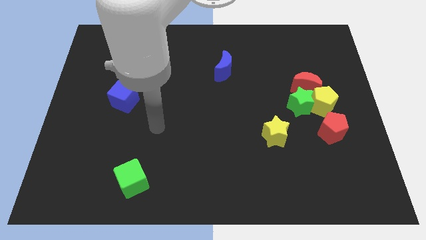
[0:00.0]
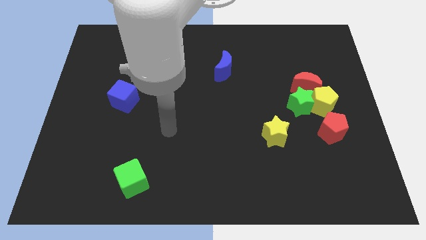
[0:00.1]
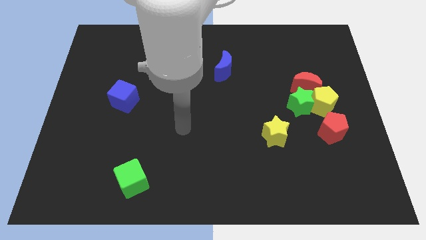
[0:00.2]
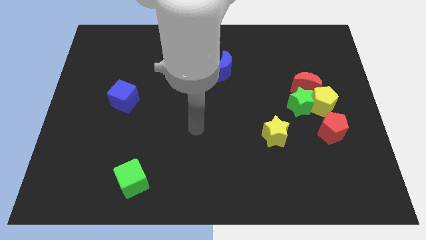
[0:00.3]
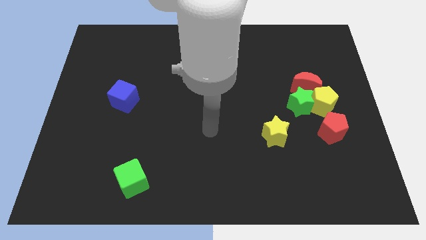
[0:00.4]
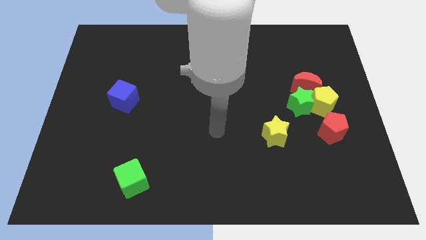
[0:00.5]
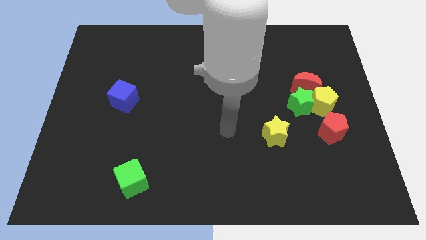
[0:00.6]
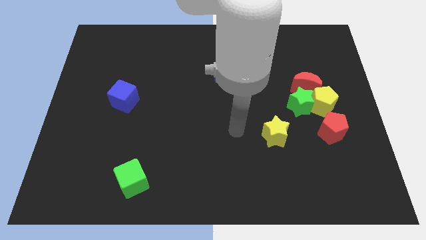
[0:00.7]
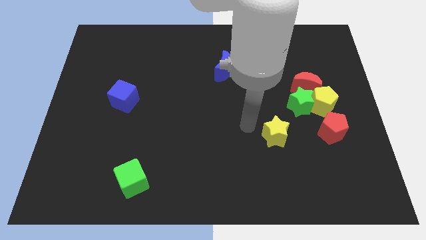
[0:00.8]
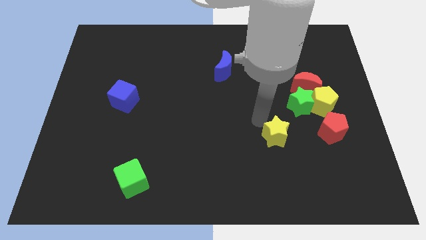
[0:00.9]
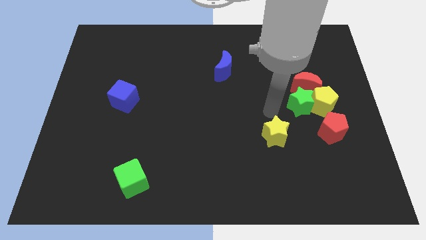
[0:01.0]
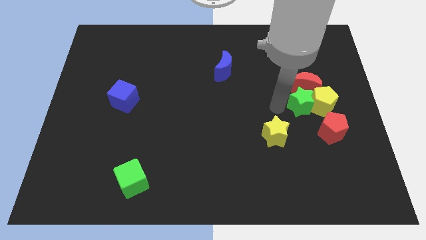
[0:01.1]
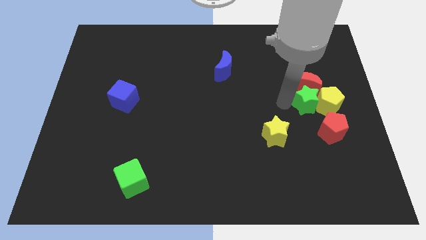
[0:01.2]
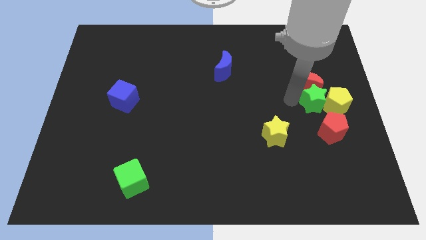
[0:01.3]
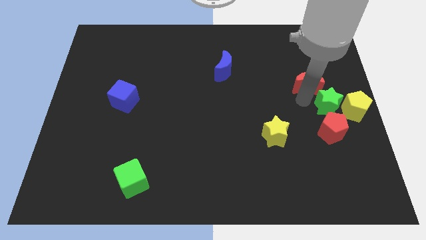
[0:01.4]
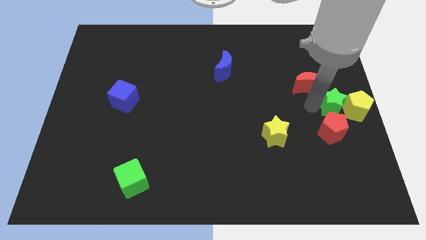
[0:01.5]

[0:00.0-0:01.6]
move the red moon away from the green star and yellow pentagon

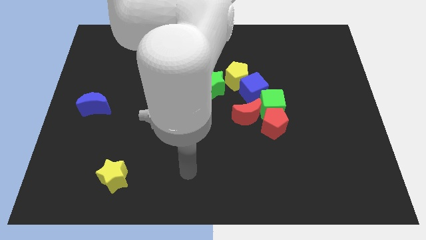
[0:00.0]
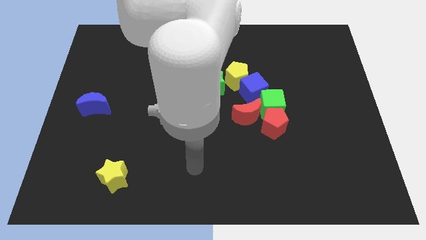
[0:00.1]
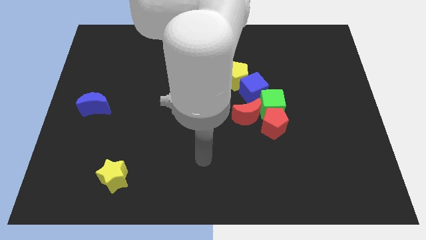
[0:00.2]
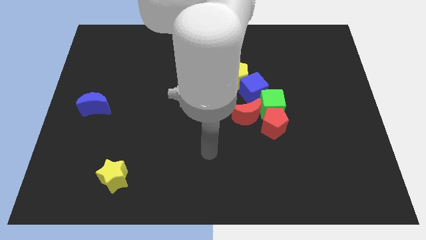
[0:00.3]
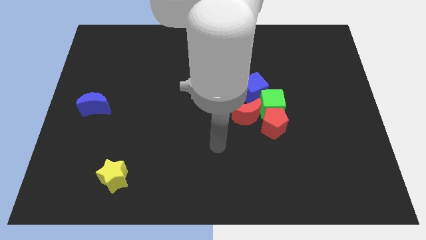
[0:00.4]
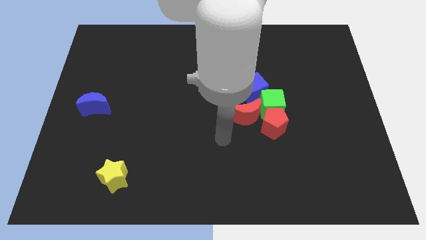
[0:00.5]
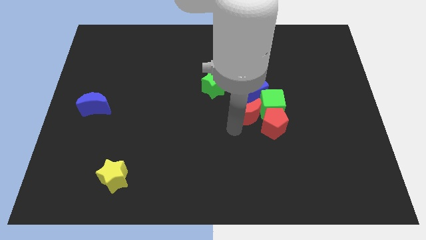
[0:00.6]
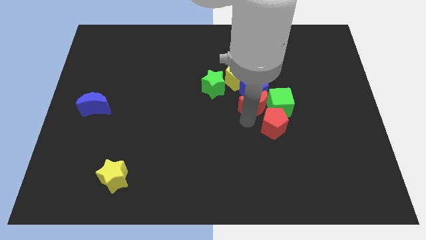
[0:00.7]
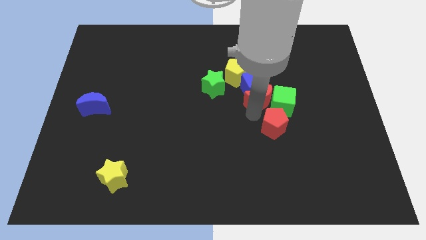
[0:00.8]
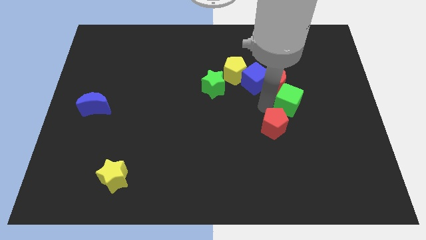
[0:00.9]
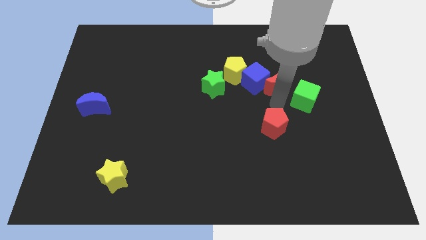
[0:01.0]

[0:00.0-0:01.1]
move the red pentagon away from the green cube and red moon

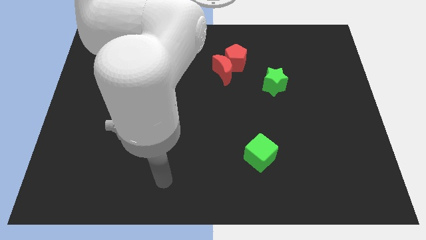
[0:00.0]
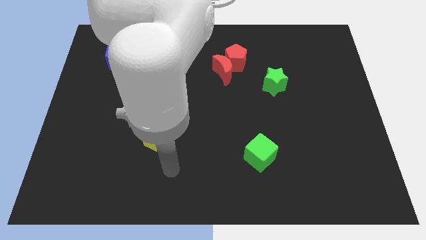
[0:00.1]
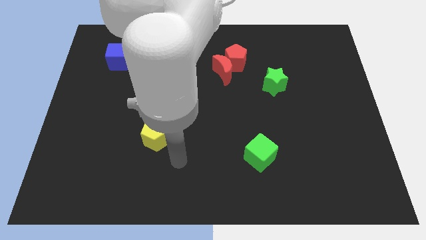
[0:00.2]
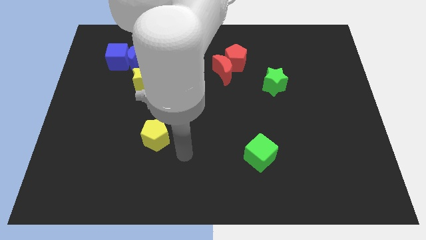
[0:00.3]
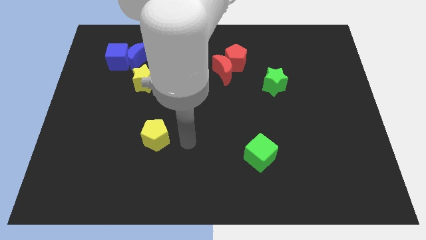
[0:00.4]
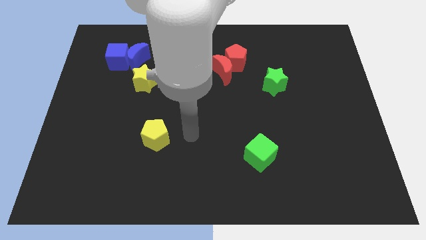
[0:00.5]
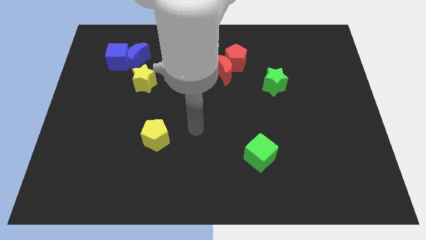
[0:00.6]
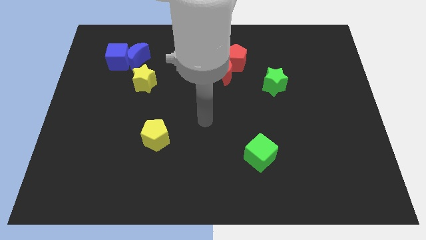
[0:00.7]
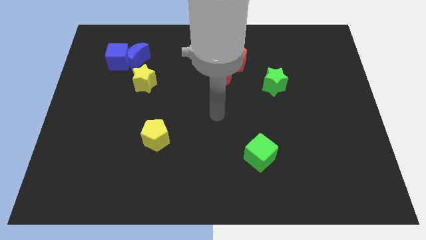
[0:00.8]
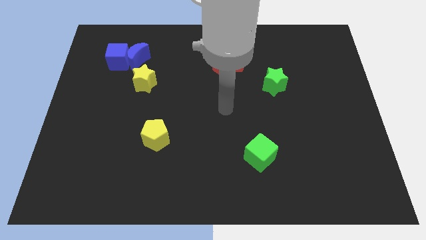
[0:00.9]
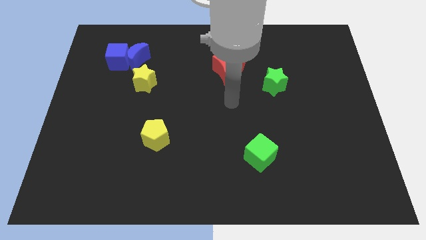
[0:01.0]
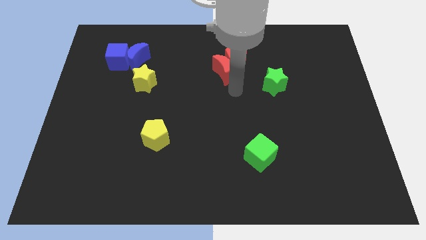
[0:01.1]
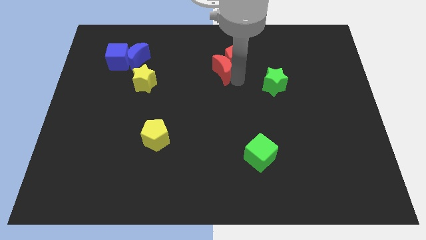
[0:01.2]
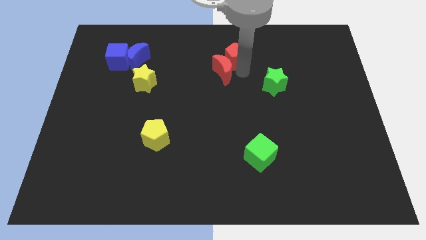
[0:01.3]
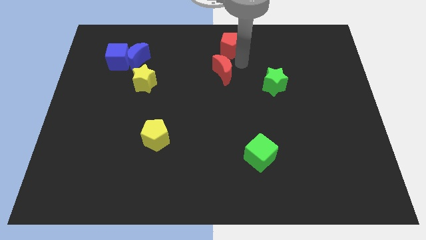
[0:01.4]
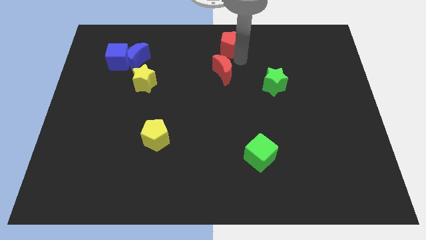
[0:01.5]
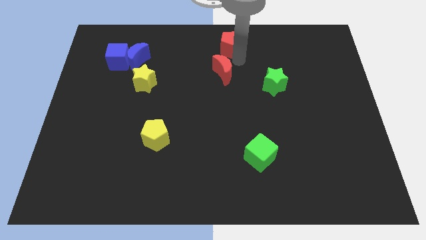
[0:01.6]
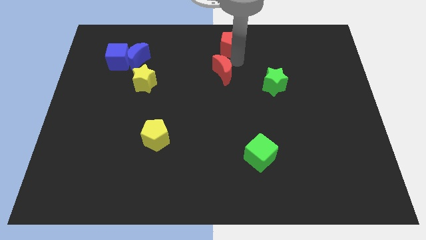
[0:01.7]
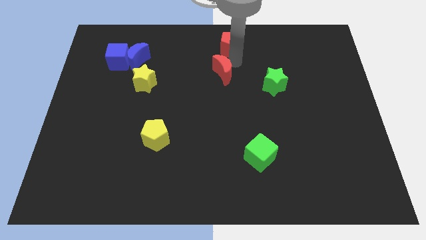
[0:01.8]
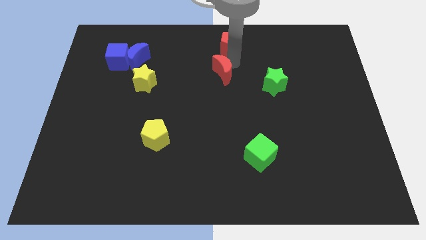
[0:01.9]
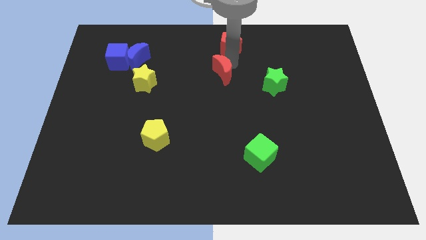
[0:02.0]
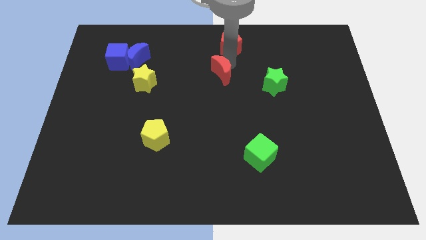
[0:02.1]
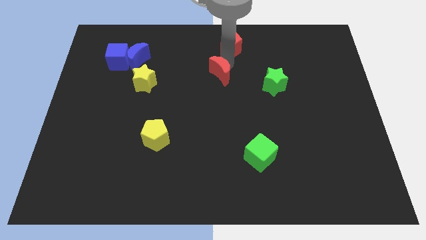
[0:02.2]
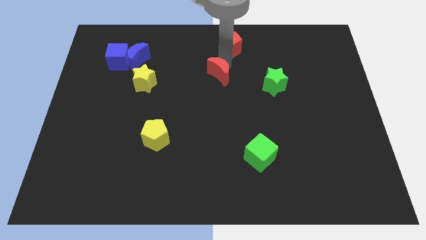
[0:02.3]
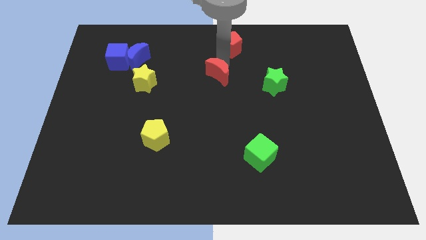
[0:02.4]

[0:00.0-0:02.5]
separate the red moon from the red pentagon

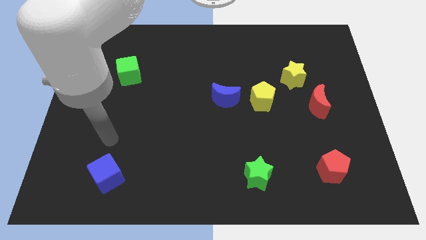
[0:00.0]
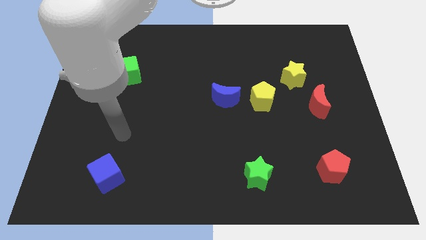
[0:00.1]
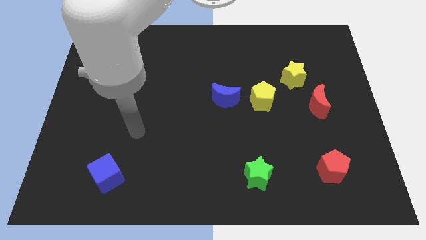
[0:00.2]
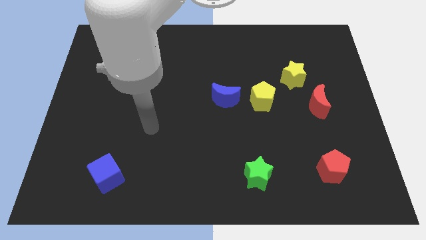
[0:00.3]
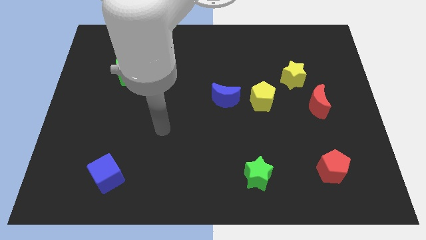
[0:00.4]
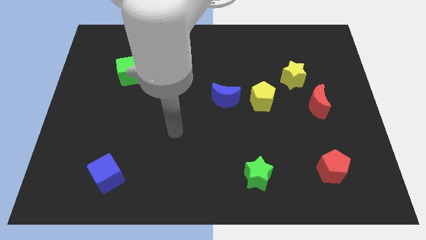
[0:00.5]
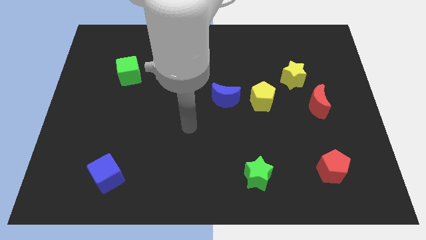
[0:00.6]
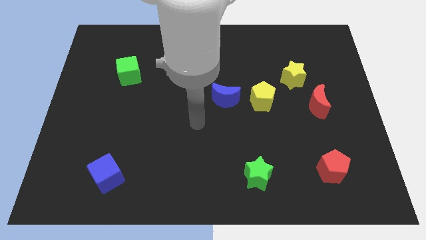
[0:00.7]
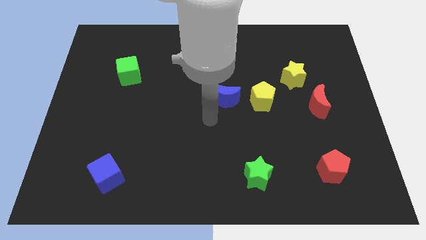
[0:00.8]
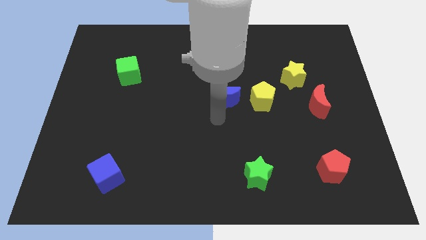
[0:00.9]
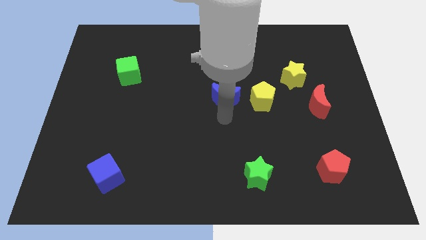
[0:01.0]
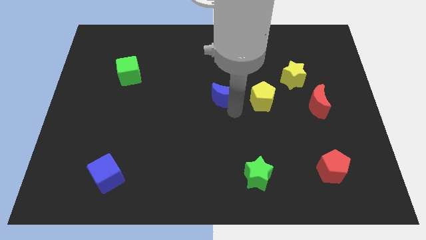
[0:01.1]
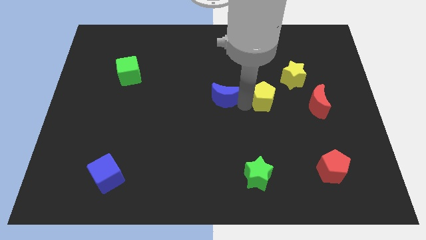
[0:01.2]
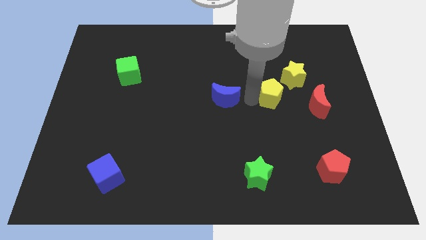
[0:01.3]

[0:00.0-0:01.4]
pull the blue moon apart from the yellow pentagon

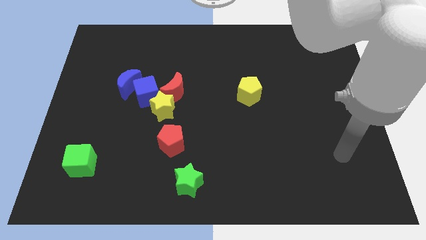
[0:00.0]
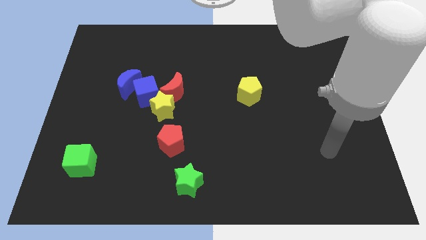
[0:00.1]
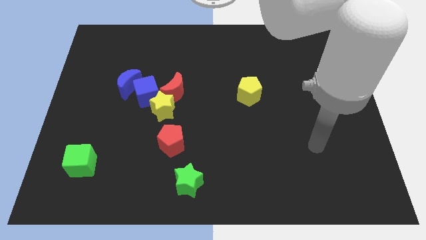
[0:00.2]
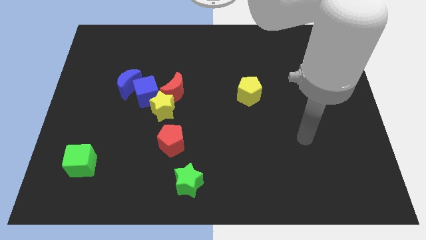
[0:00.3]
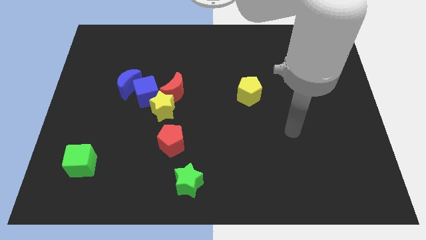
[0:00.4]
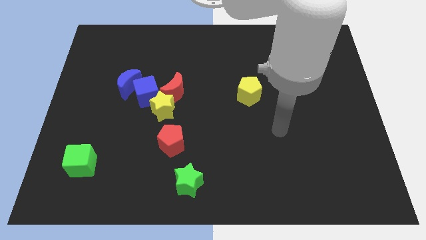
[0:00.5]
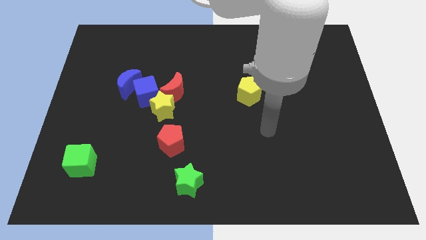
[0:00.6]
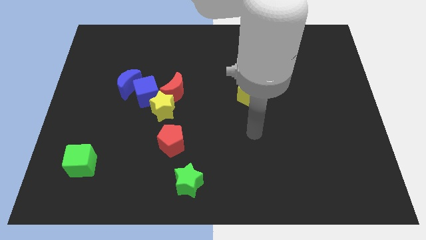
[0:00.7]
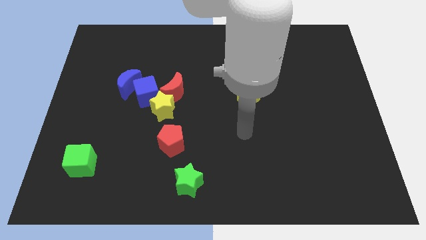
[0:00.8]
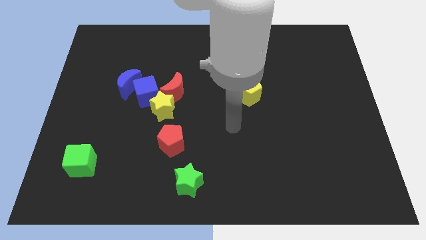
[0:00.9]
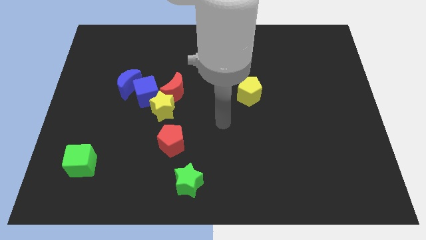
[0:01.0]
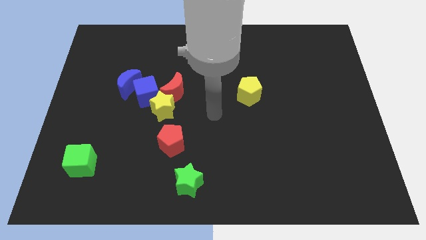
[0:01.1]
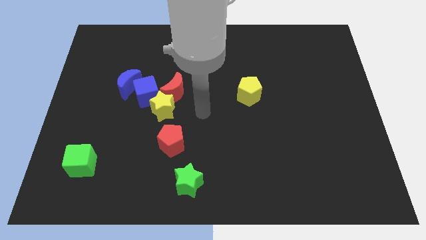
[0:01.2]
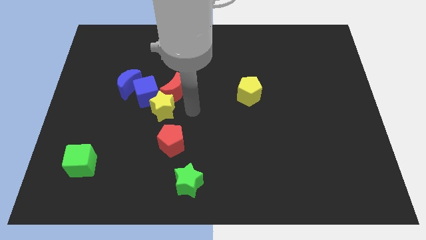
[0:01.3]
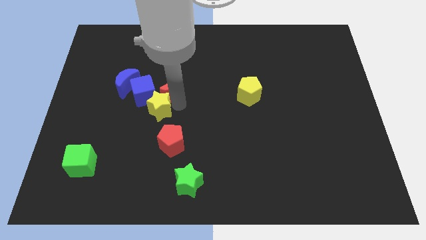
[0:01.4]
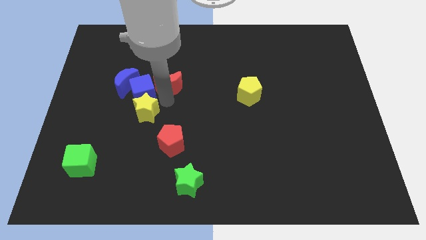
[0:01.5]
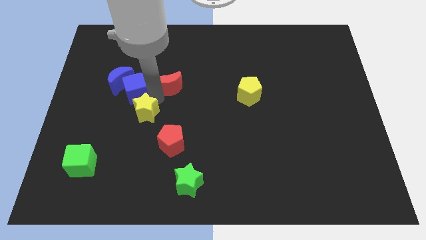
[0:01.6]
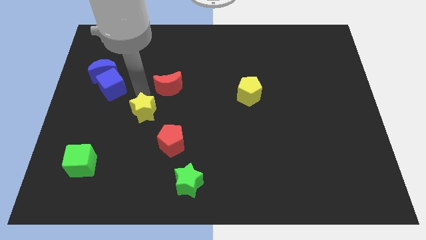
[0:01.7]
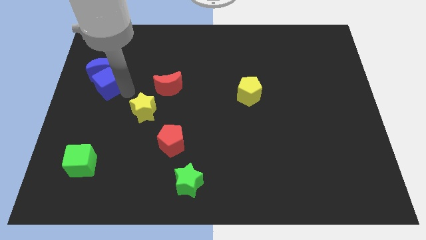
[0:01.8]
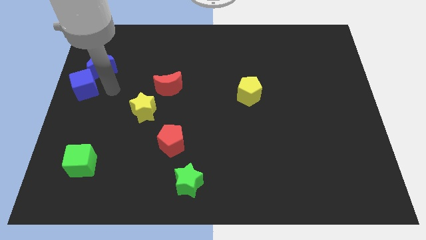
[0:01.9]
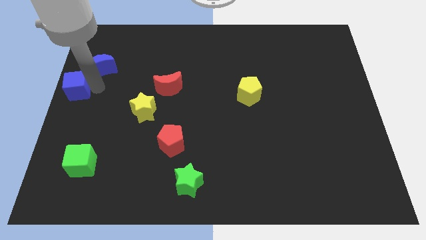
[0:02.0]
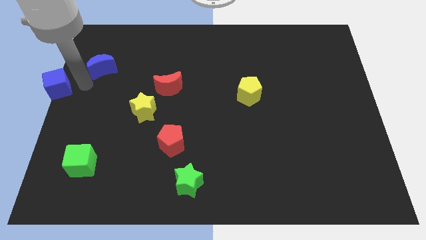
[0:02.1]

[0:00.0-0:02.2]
move the blue moon away from the blue cube

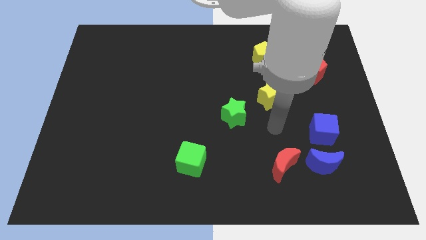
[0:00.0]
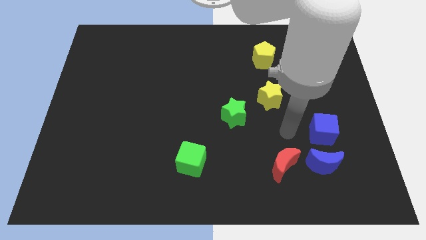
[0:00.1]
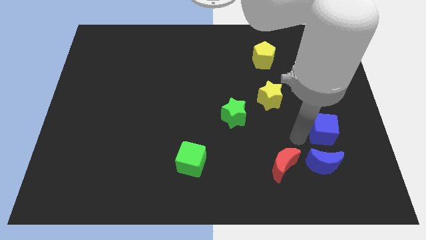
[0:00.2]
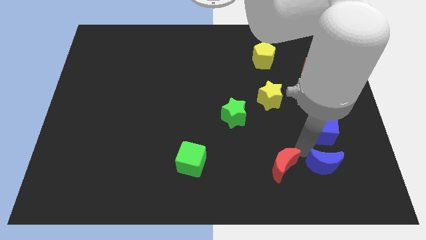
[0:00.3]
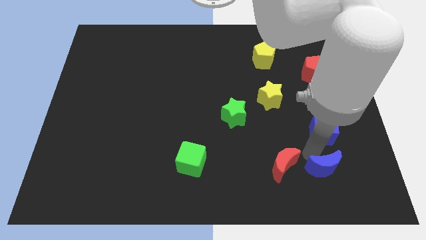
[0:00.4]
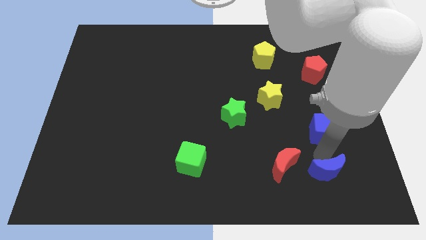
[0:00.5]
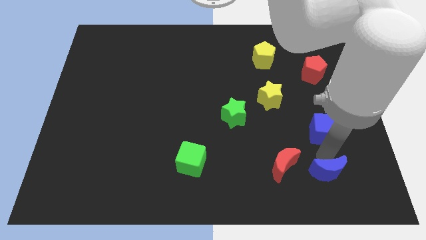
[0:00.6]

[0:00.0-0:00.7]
move the blue cube away from the blue moon
